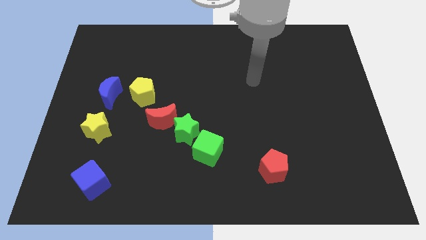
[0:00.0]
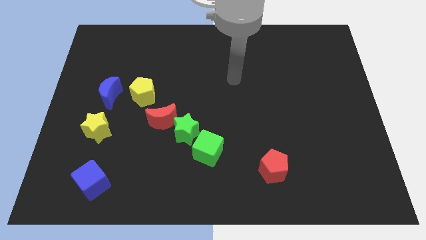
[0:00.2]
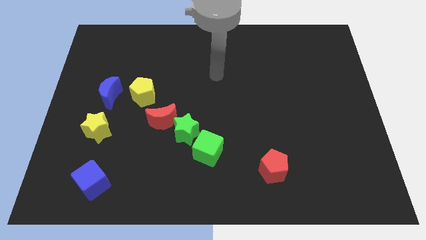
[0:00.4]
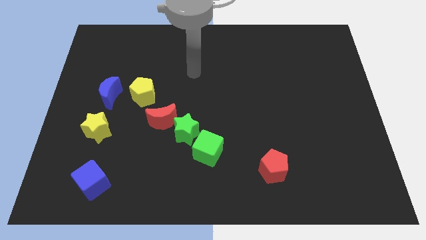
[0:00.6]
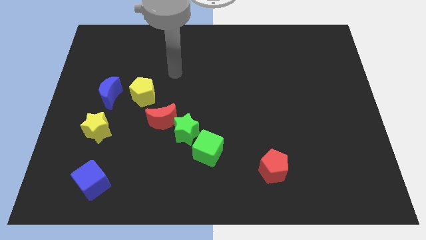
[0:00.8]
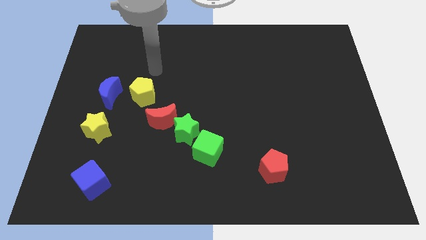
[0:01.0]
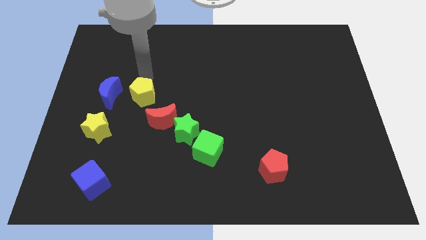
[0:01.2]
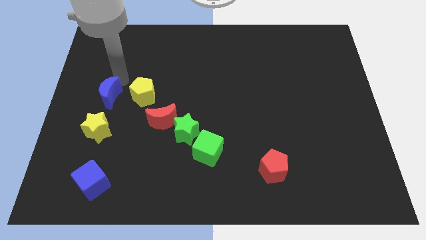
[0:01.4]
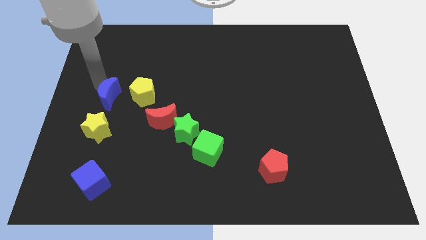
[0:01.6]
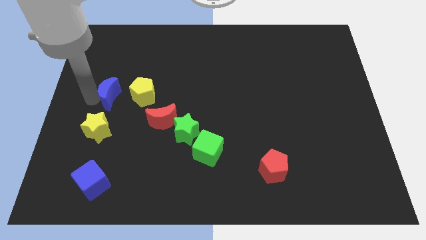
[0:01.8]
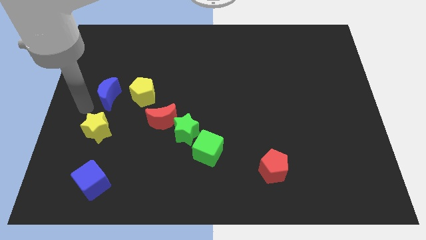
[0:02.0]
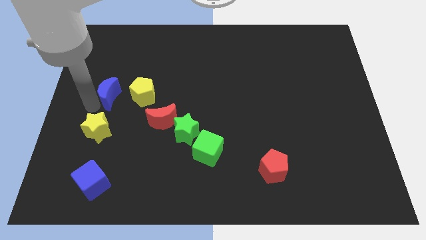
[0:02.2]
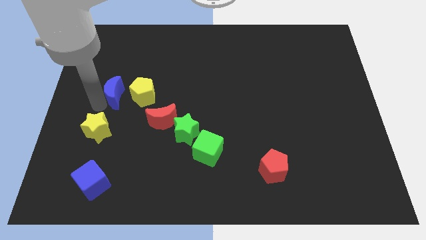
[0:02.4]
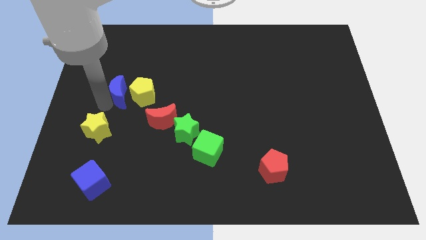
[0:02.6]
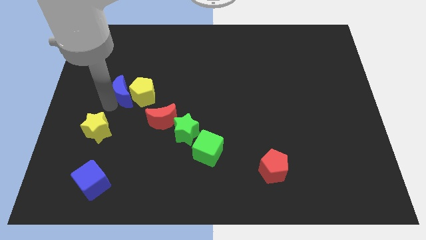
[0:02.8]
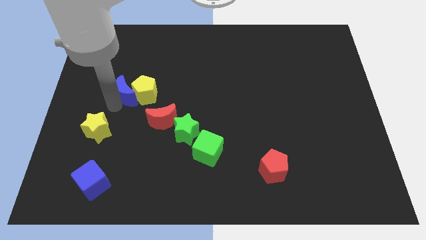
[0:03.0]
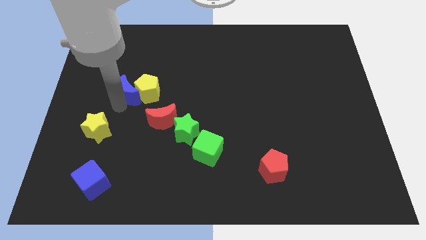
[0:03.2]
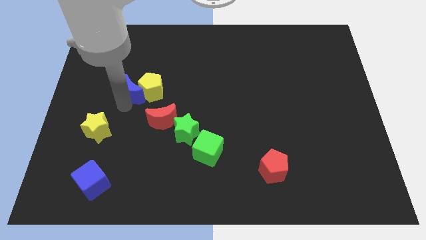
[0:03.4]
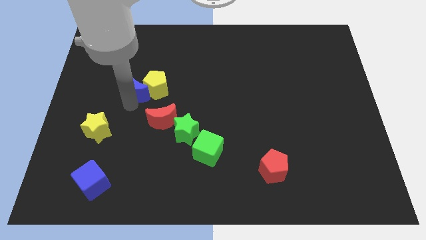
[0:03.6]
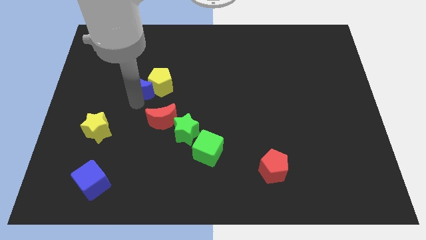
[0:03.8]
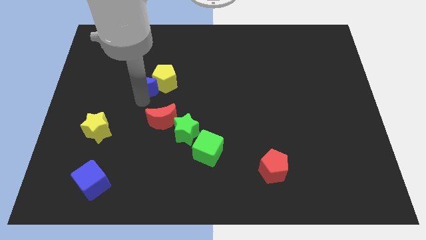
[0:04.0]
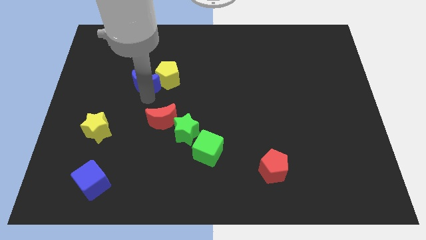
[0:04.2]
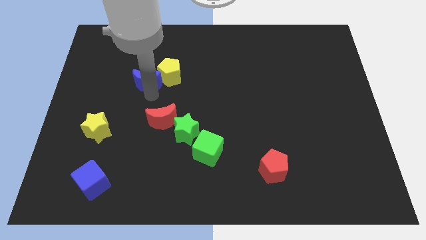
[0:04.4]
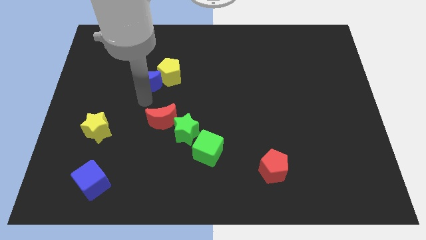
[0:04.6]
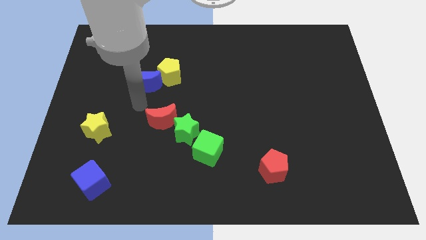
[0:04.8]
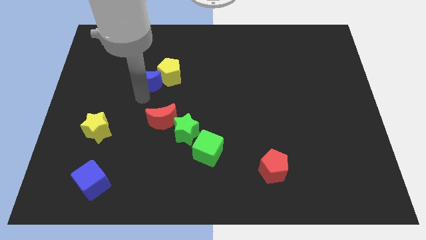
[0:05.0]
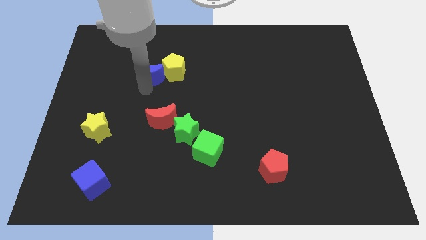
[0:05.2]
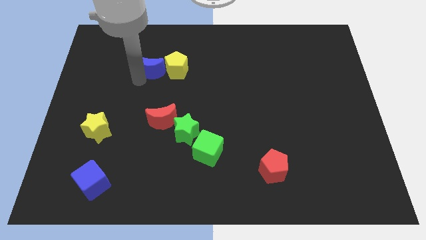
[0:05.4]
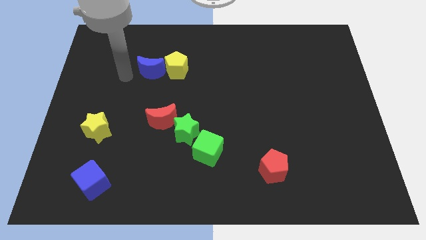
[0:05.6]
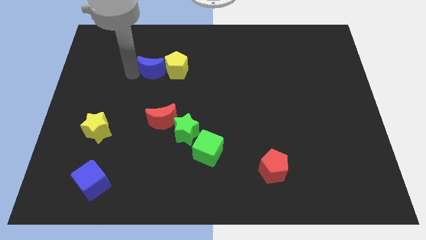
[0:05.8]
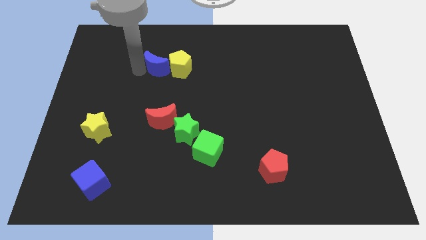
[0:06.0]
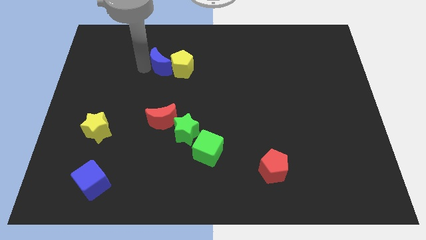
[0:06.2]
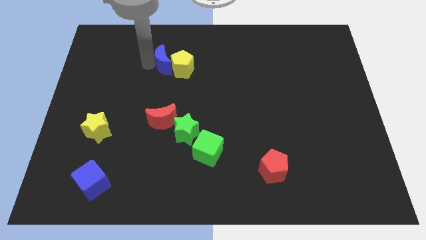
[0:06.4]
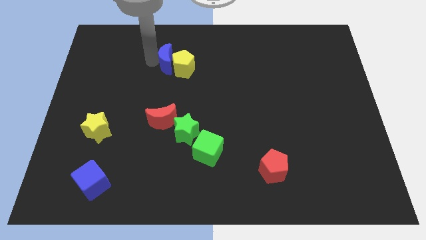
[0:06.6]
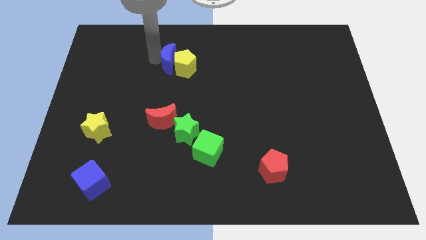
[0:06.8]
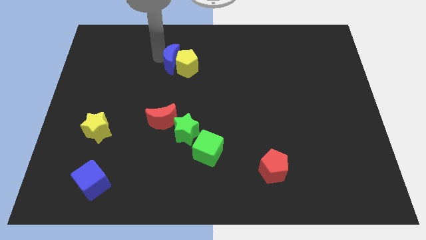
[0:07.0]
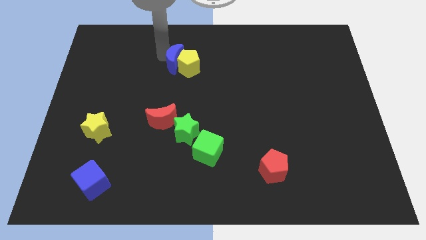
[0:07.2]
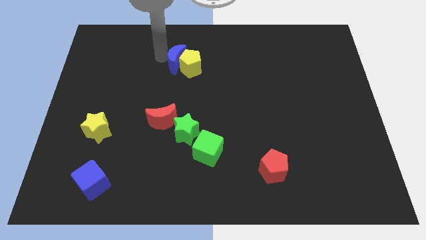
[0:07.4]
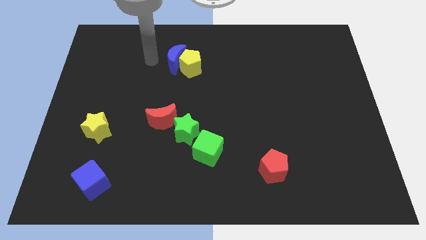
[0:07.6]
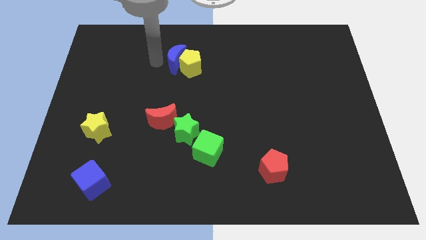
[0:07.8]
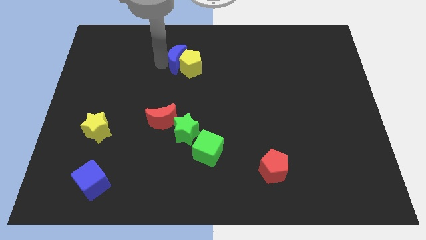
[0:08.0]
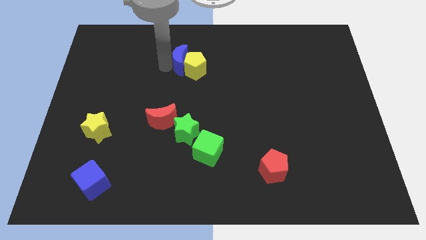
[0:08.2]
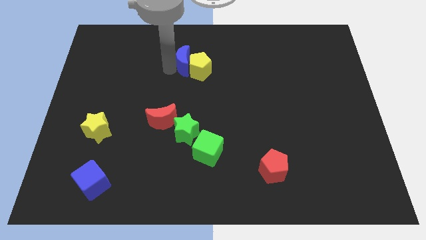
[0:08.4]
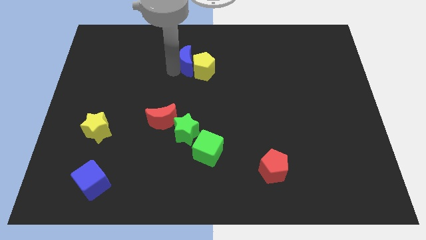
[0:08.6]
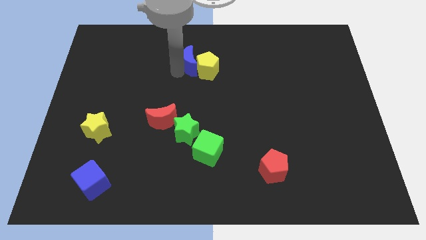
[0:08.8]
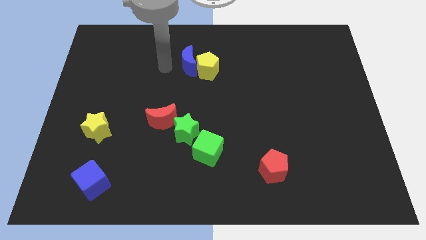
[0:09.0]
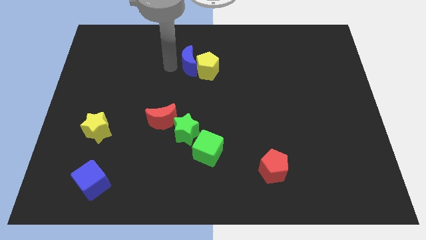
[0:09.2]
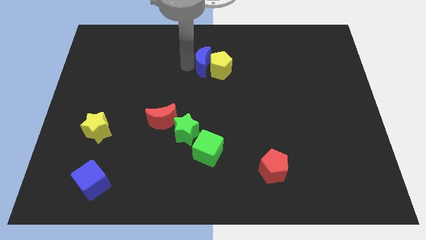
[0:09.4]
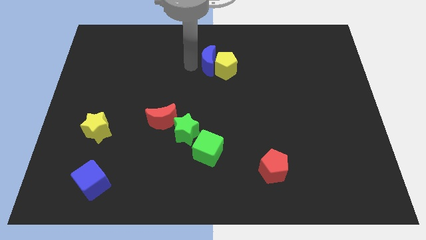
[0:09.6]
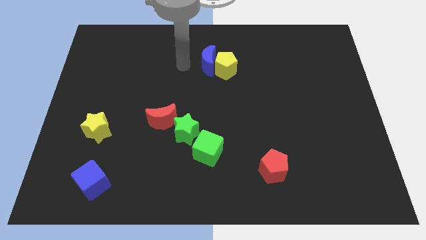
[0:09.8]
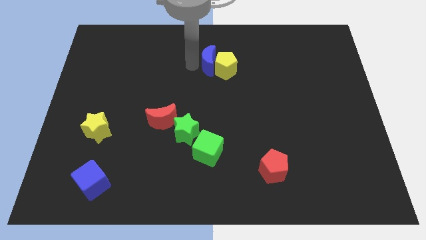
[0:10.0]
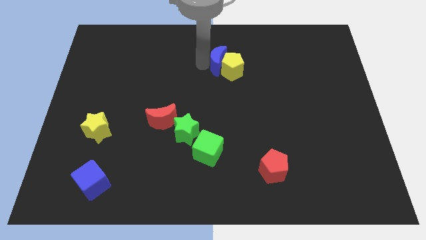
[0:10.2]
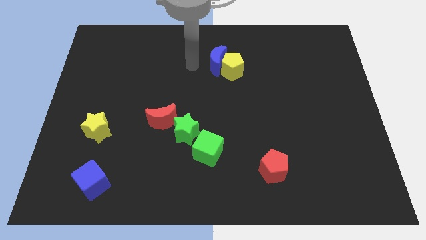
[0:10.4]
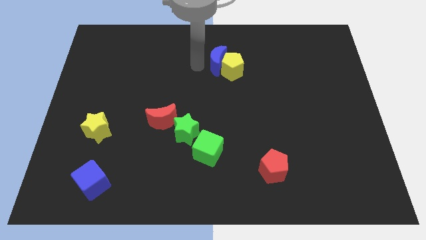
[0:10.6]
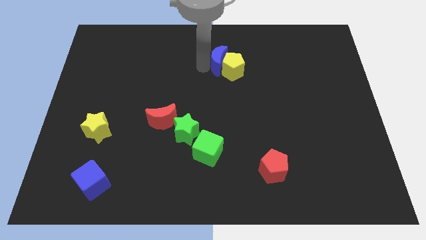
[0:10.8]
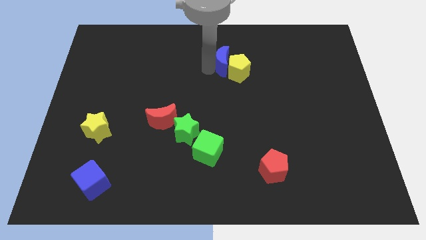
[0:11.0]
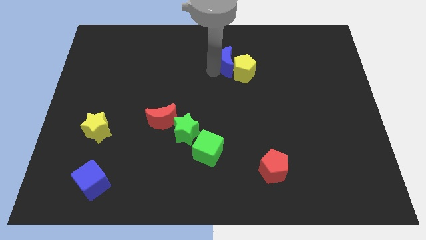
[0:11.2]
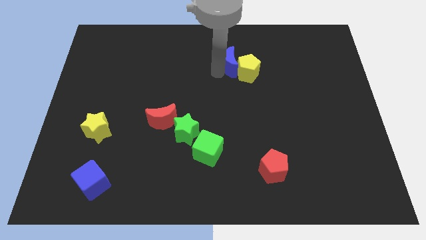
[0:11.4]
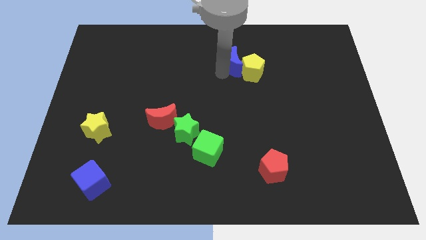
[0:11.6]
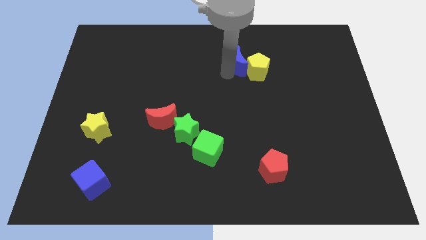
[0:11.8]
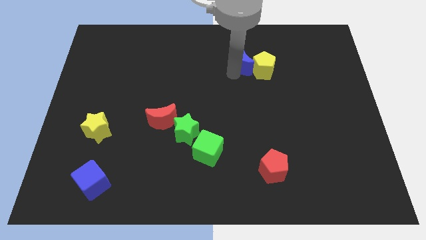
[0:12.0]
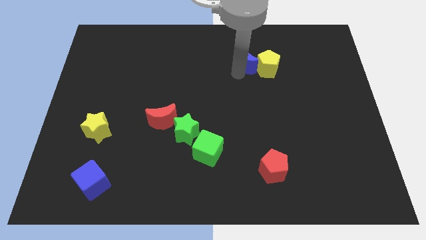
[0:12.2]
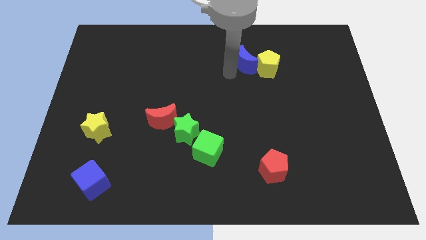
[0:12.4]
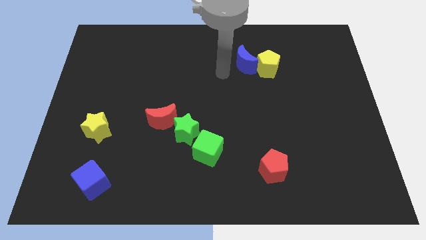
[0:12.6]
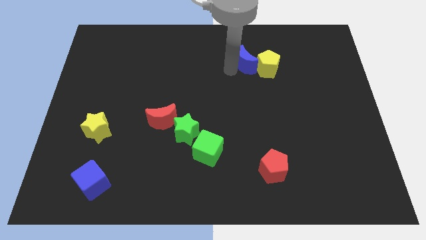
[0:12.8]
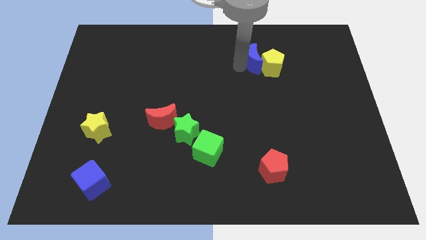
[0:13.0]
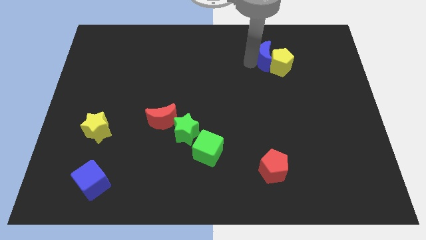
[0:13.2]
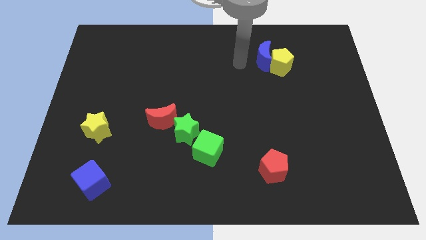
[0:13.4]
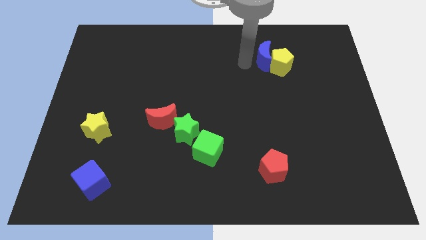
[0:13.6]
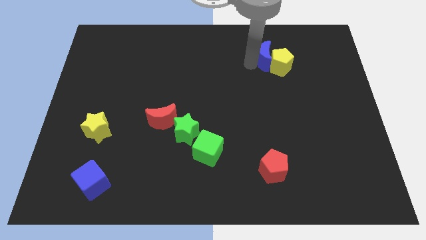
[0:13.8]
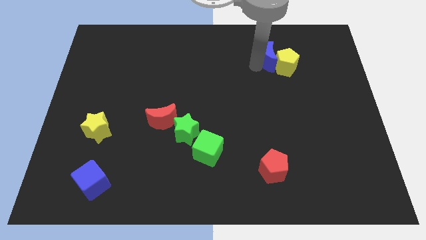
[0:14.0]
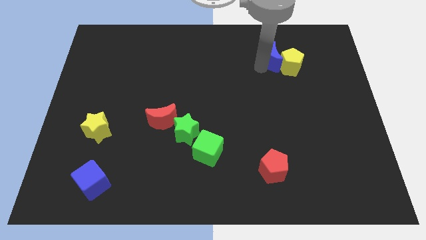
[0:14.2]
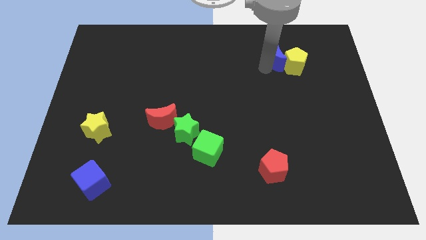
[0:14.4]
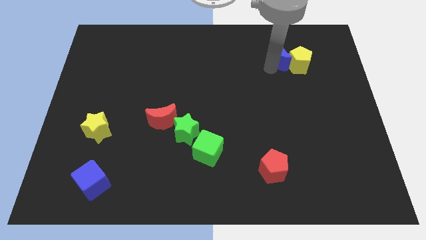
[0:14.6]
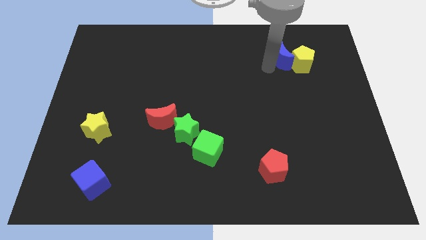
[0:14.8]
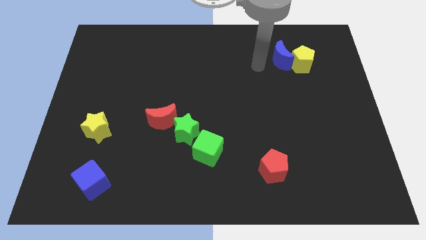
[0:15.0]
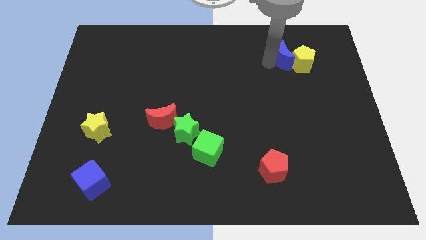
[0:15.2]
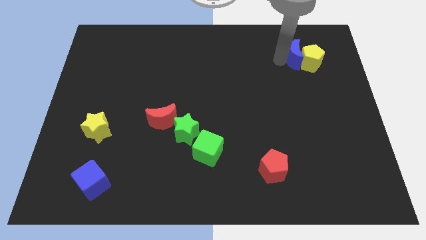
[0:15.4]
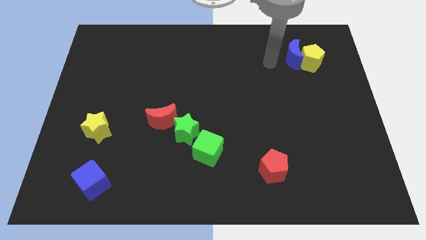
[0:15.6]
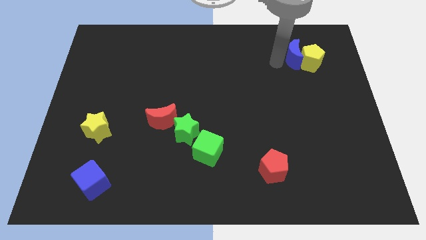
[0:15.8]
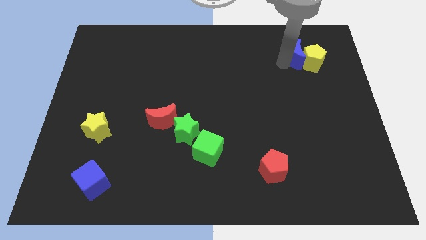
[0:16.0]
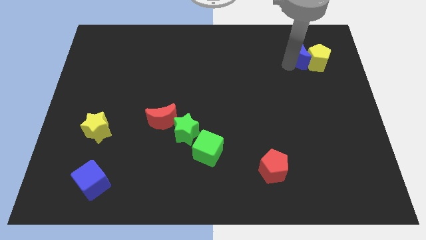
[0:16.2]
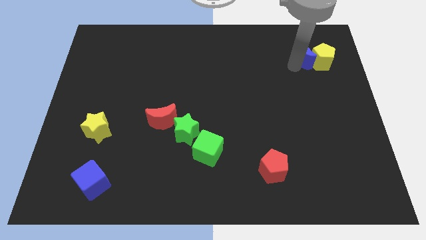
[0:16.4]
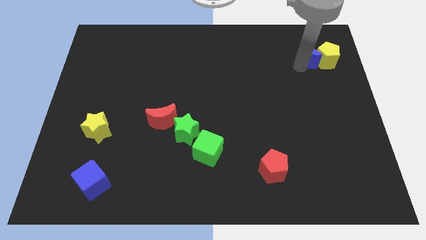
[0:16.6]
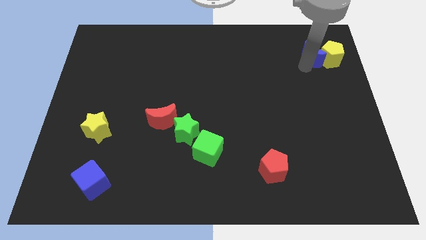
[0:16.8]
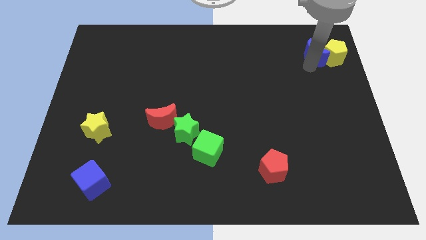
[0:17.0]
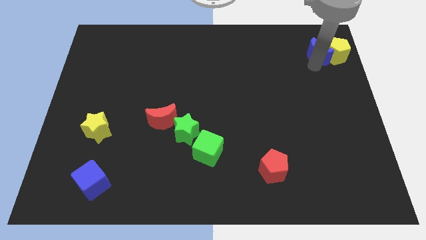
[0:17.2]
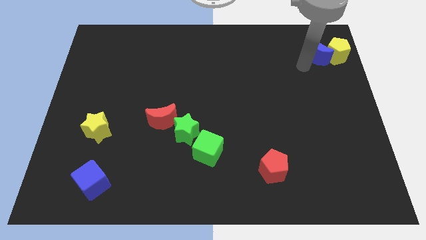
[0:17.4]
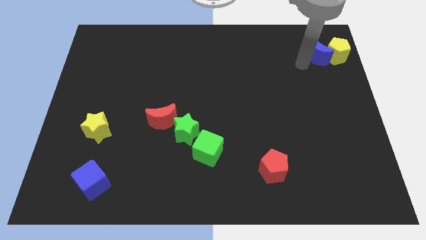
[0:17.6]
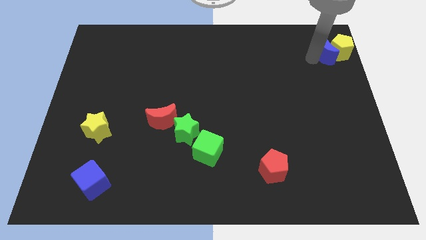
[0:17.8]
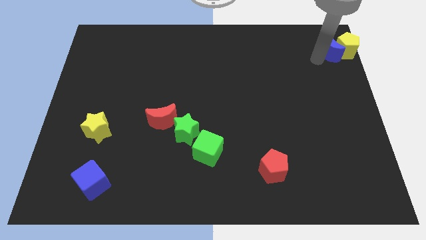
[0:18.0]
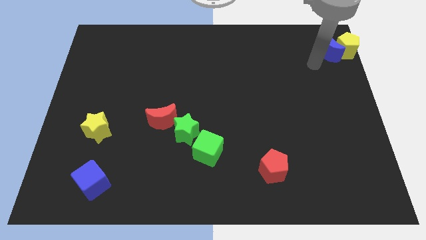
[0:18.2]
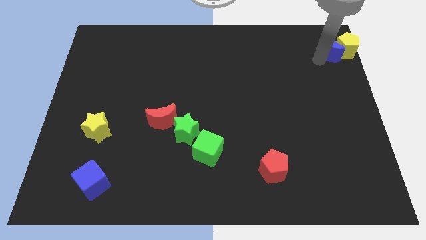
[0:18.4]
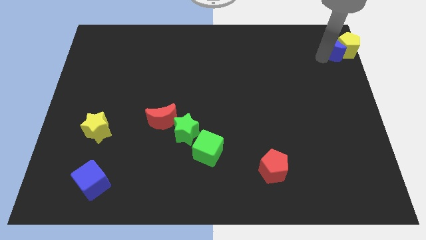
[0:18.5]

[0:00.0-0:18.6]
push the blue moon to the top right corner
